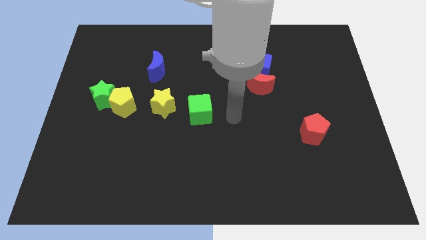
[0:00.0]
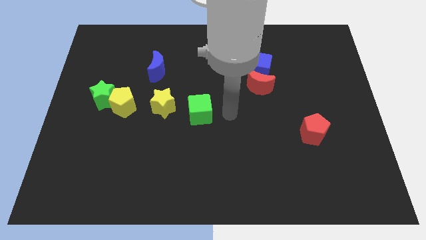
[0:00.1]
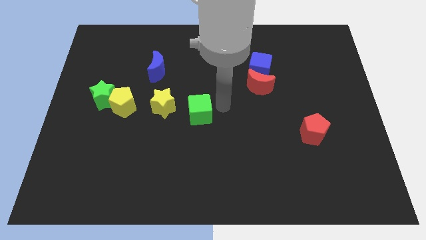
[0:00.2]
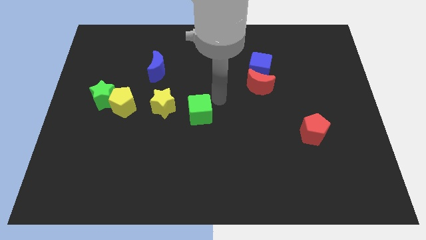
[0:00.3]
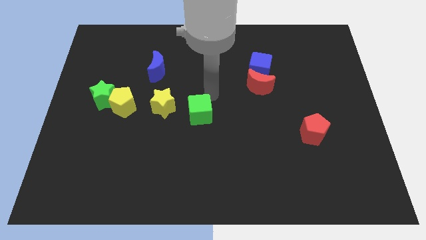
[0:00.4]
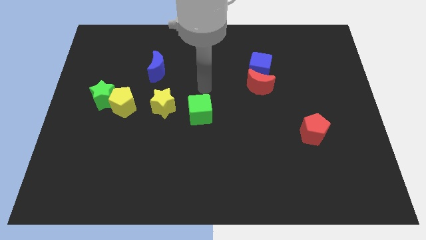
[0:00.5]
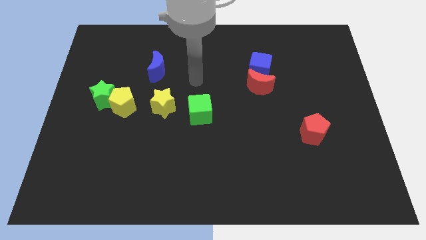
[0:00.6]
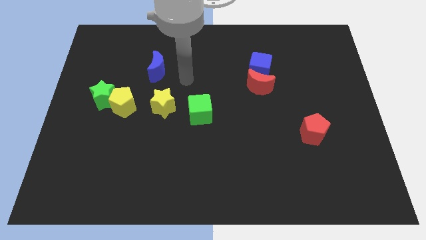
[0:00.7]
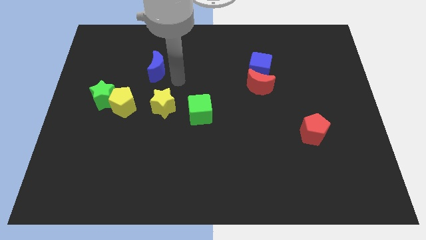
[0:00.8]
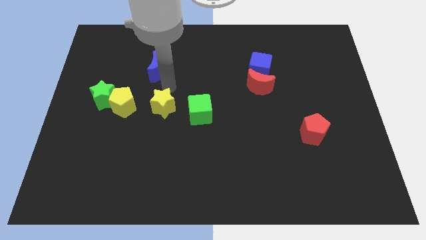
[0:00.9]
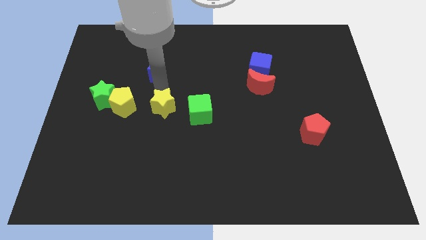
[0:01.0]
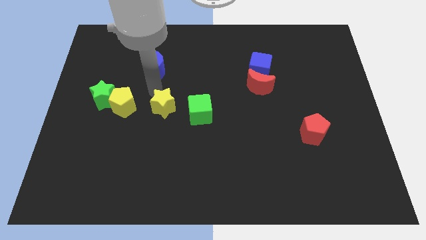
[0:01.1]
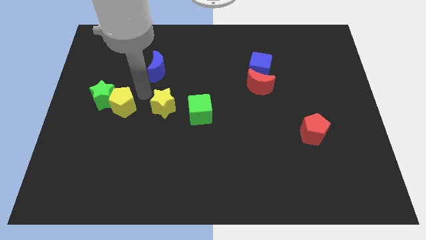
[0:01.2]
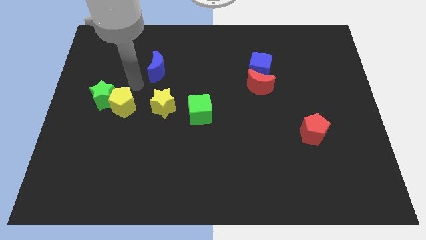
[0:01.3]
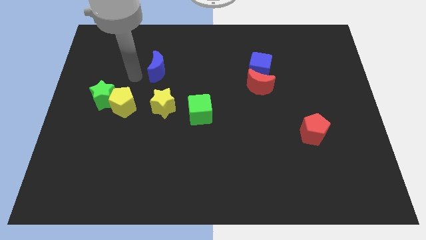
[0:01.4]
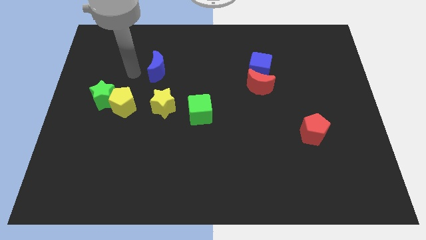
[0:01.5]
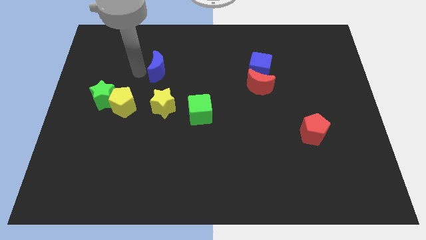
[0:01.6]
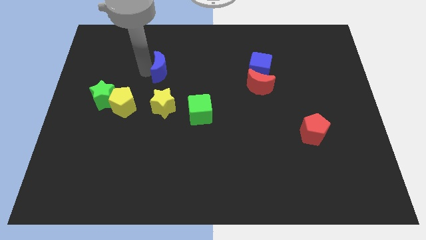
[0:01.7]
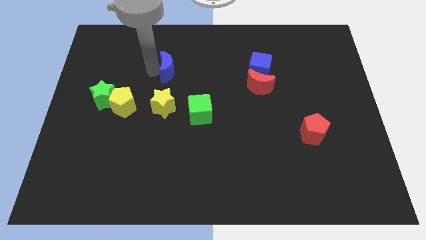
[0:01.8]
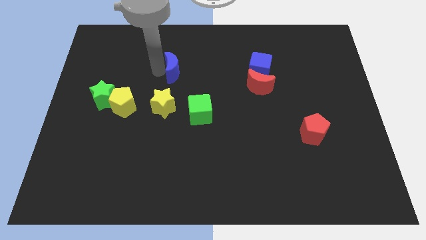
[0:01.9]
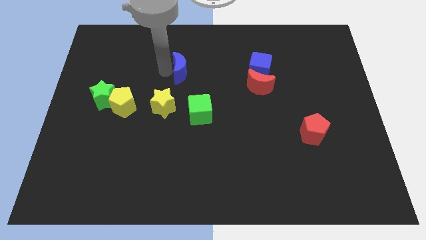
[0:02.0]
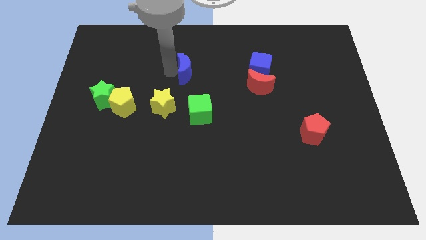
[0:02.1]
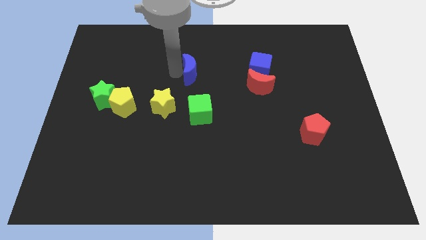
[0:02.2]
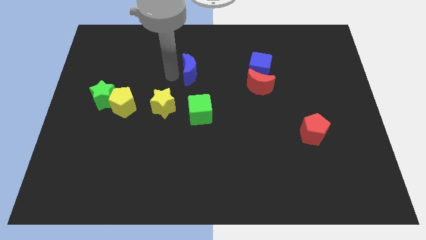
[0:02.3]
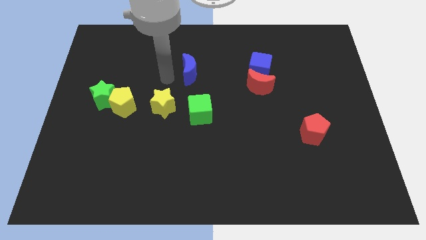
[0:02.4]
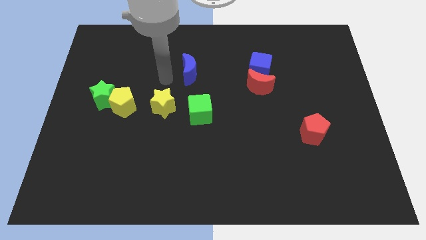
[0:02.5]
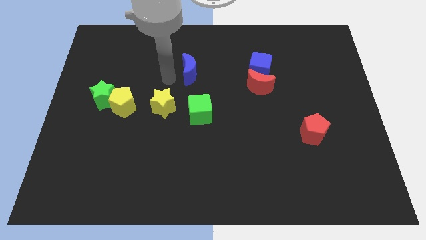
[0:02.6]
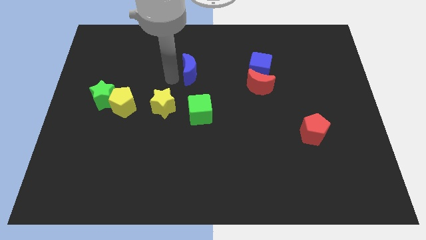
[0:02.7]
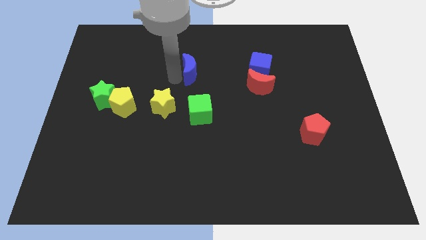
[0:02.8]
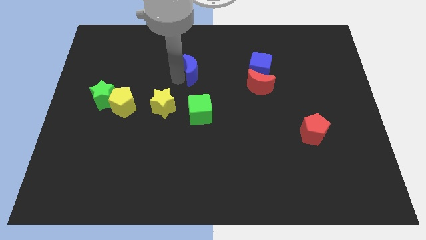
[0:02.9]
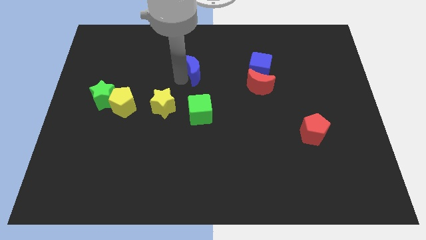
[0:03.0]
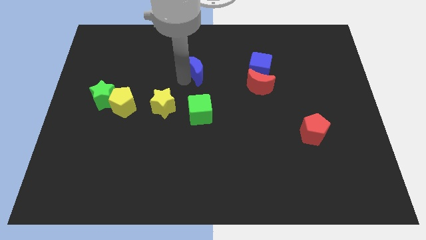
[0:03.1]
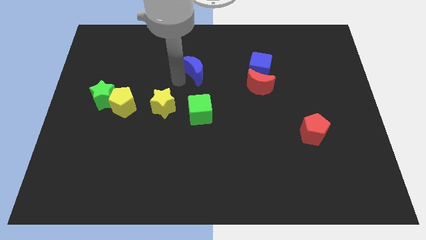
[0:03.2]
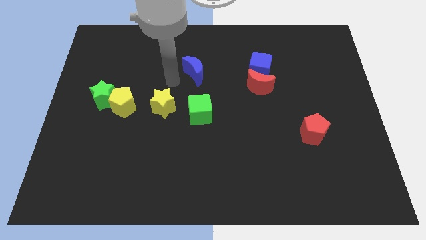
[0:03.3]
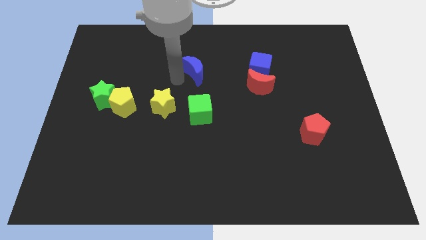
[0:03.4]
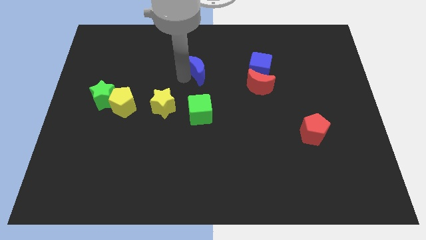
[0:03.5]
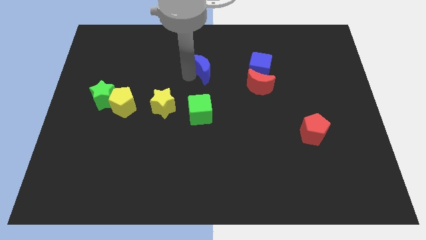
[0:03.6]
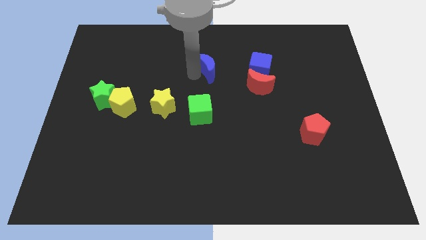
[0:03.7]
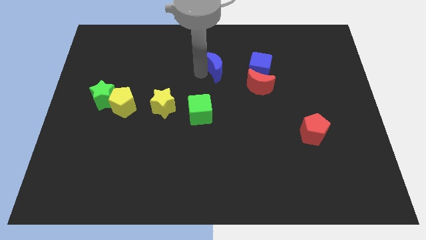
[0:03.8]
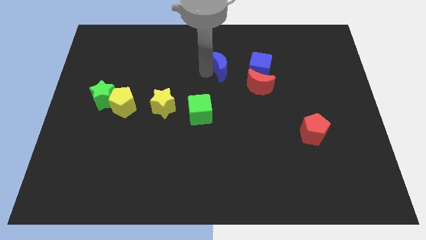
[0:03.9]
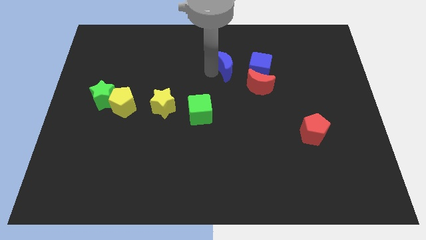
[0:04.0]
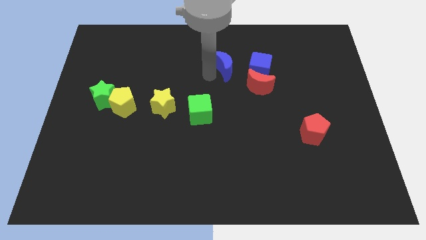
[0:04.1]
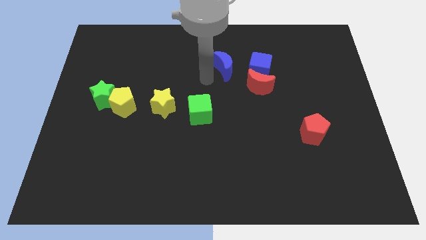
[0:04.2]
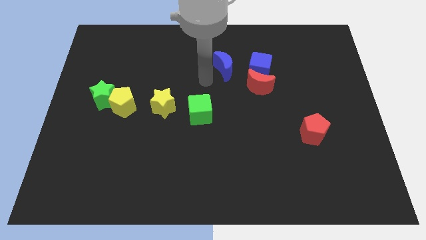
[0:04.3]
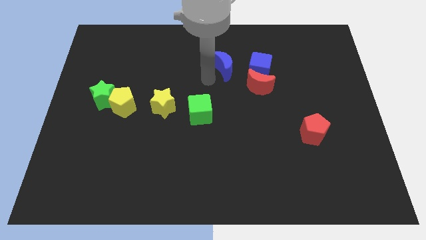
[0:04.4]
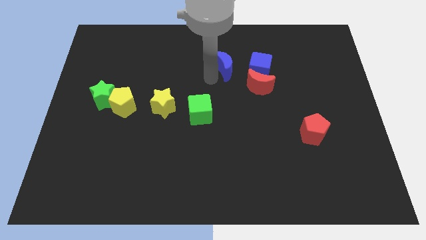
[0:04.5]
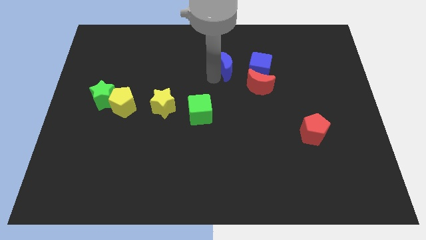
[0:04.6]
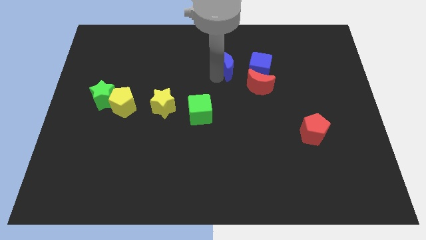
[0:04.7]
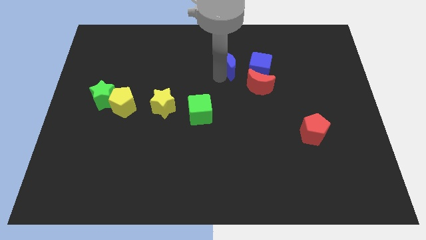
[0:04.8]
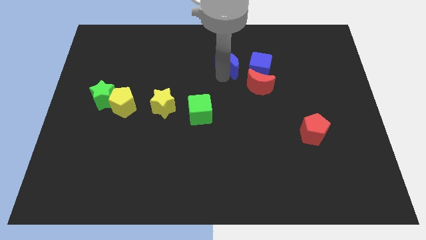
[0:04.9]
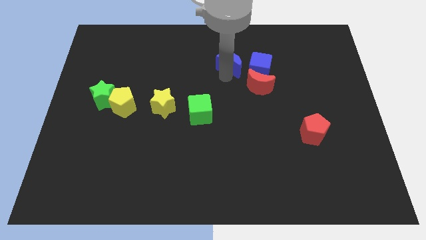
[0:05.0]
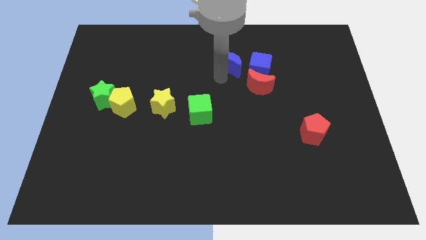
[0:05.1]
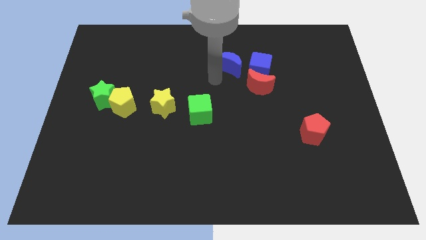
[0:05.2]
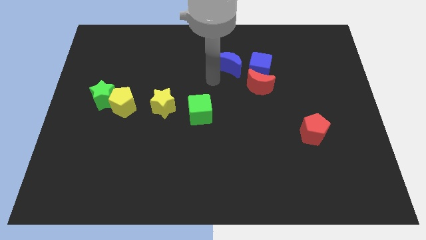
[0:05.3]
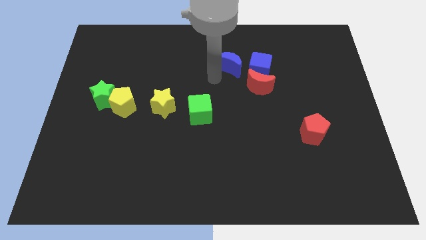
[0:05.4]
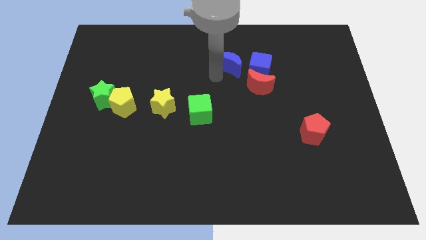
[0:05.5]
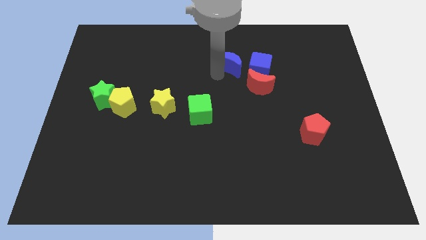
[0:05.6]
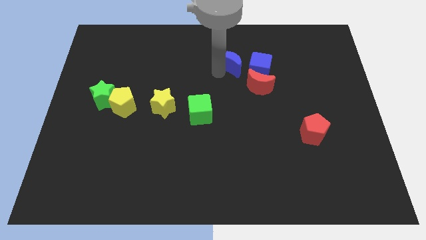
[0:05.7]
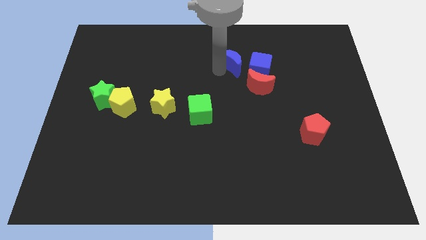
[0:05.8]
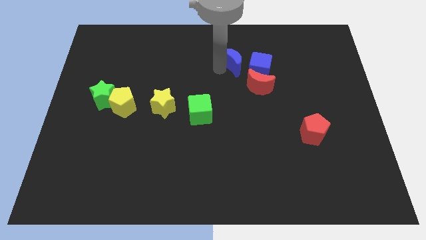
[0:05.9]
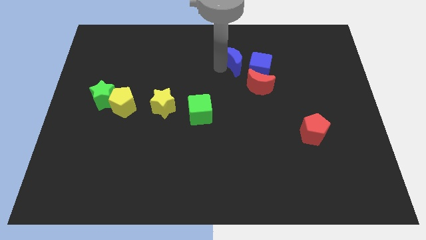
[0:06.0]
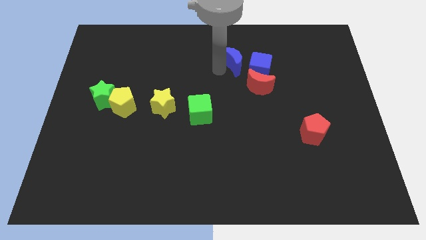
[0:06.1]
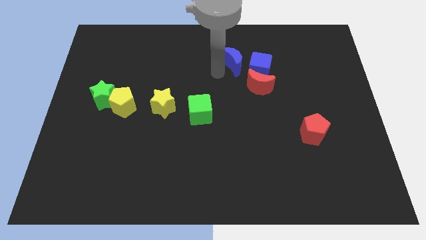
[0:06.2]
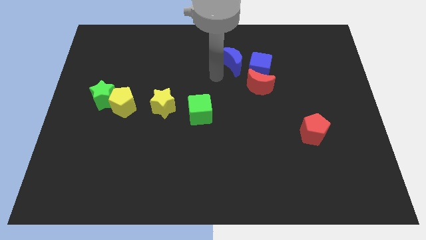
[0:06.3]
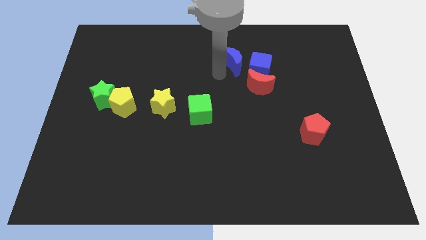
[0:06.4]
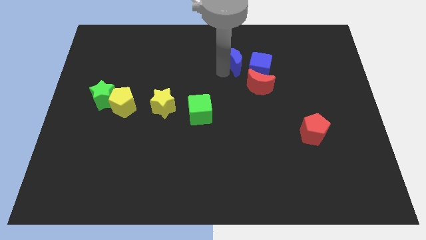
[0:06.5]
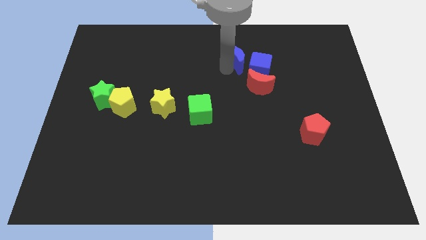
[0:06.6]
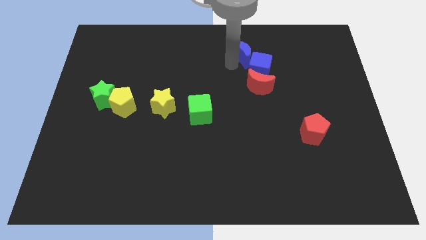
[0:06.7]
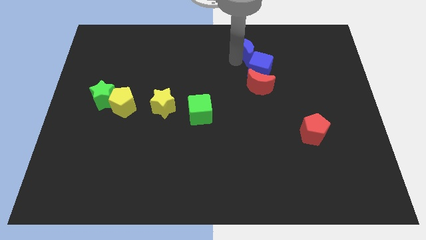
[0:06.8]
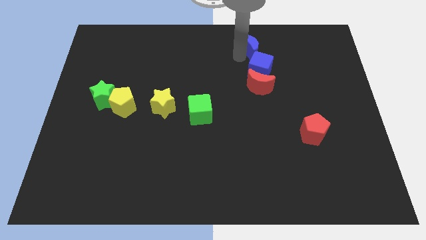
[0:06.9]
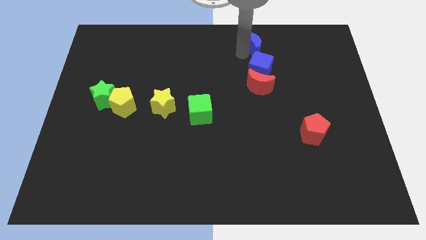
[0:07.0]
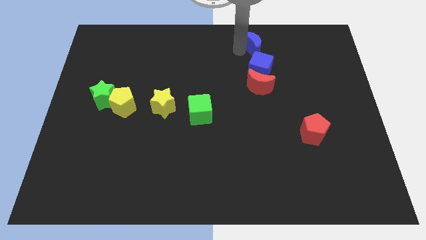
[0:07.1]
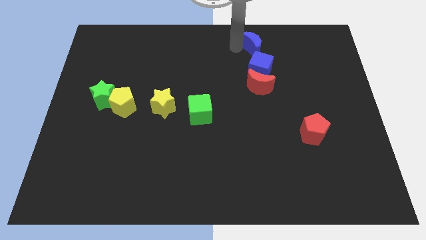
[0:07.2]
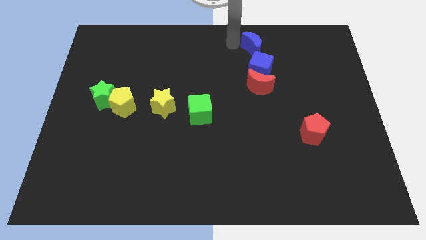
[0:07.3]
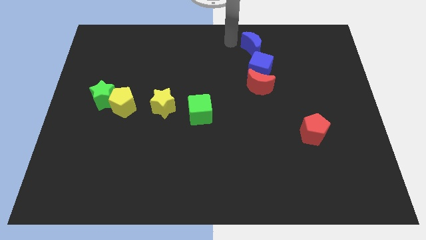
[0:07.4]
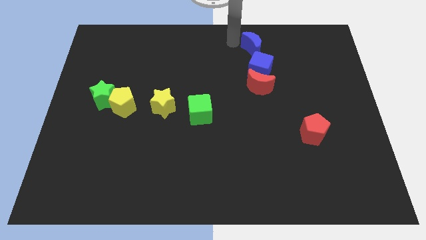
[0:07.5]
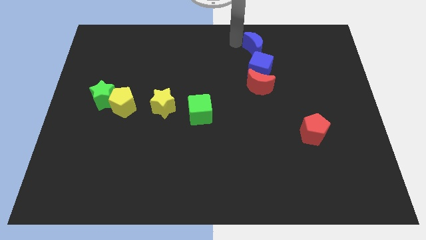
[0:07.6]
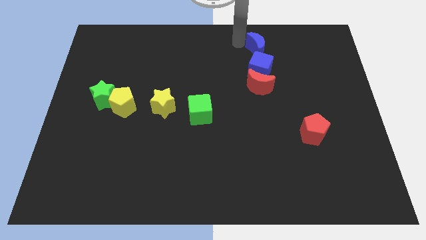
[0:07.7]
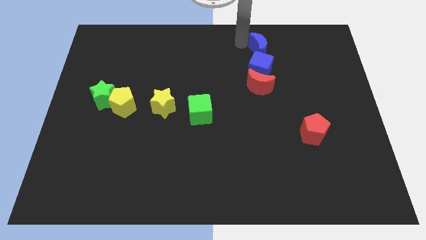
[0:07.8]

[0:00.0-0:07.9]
slide the blue moon to the top right of the blue cube
